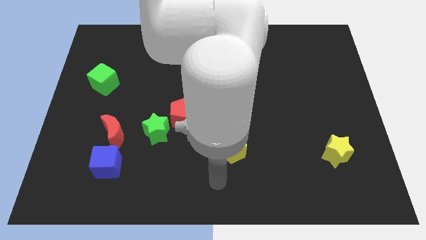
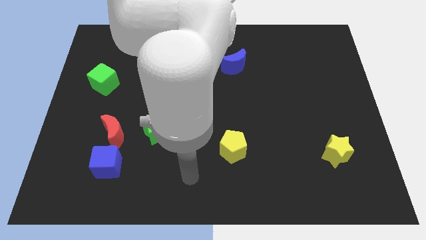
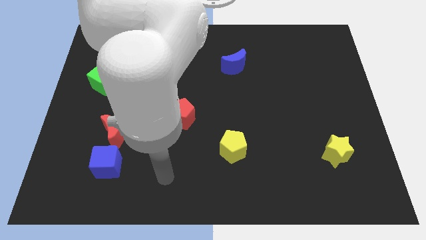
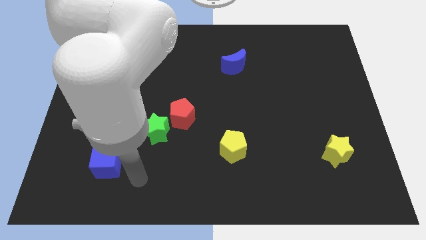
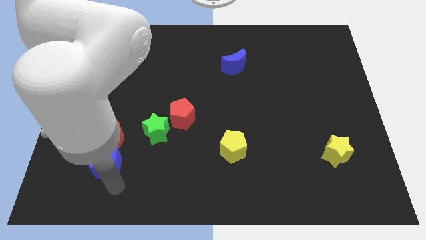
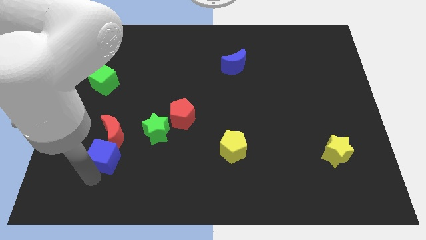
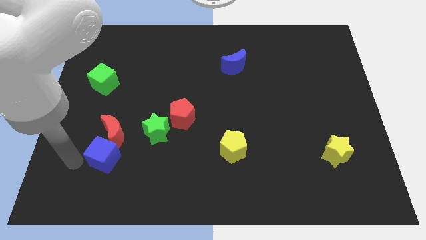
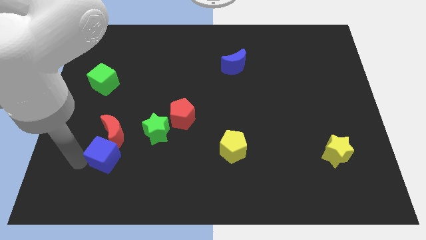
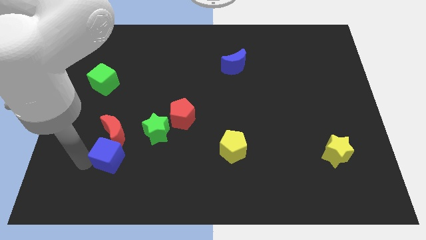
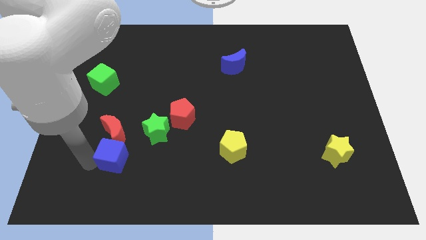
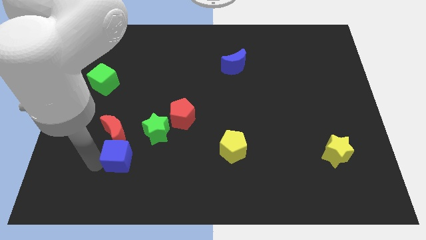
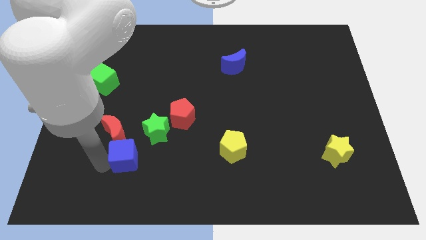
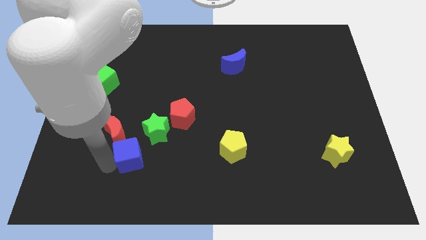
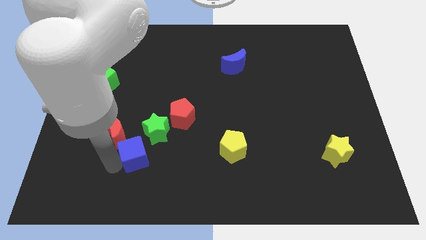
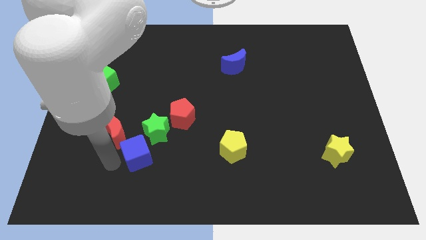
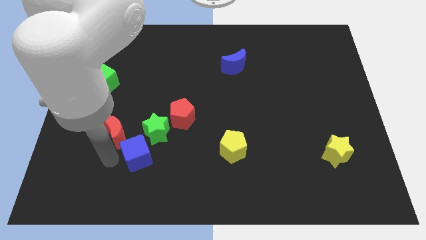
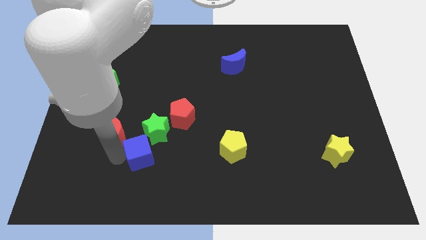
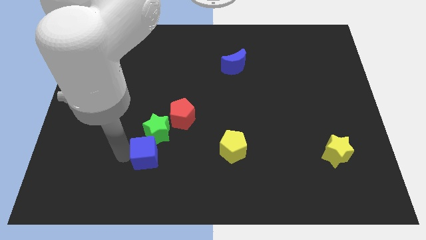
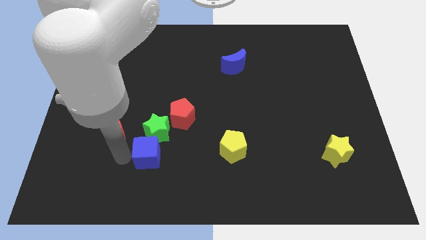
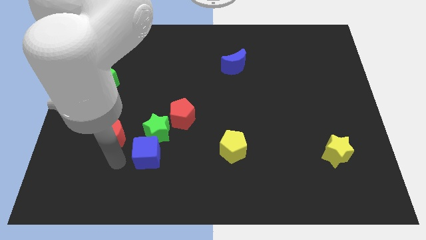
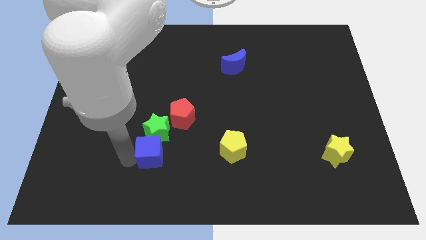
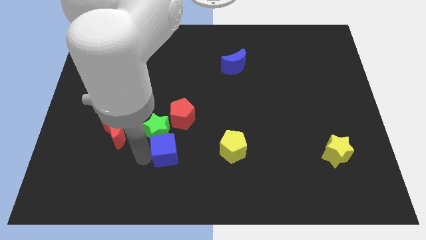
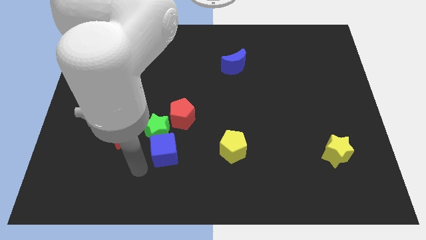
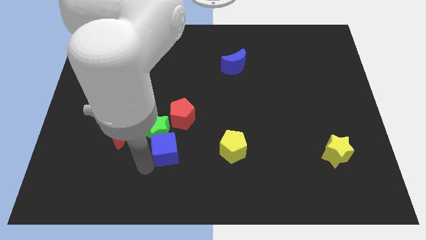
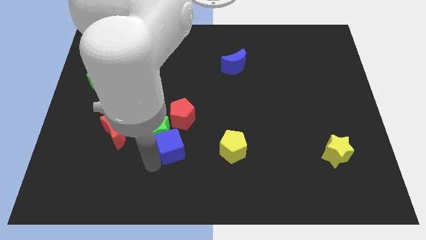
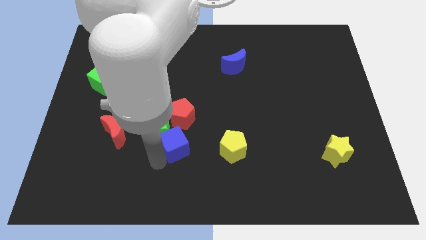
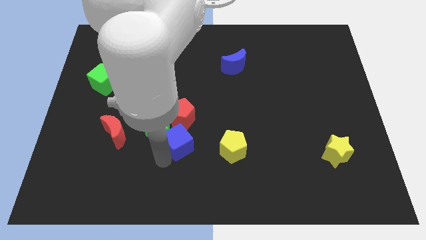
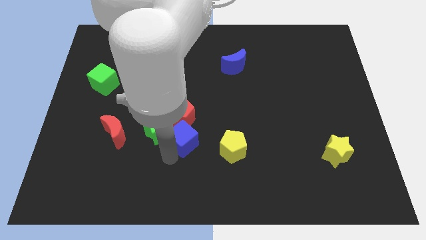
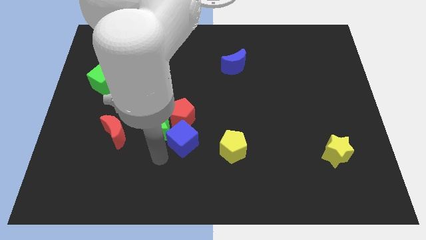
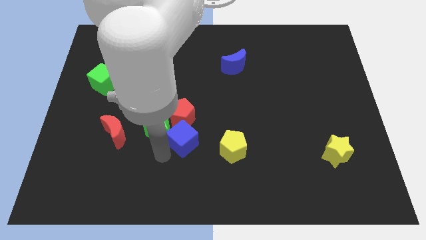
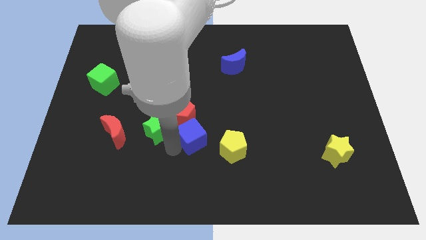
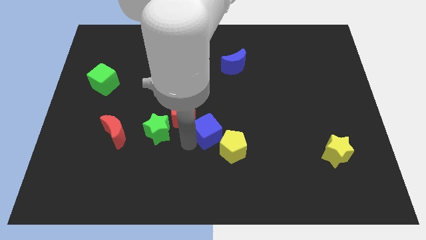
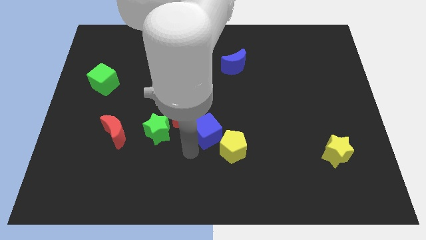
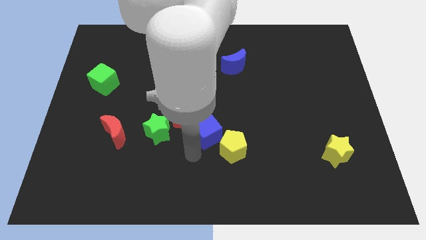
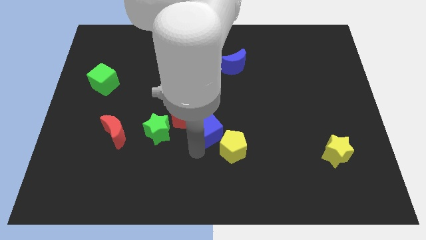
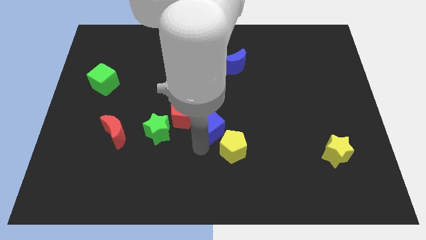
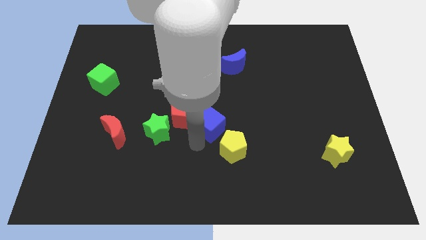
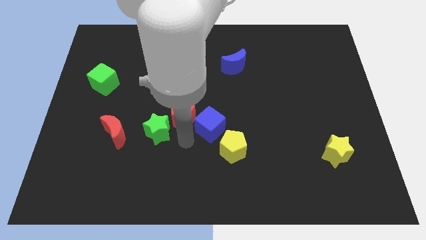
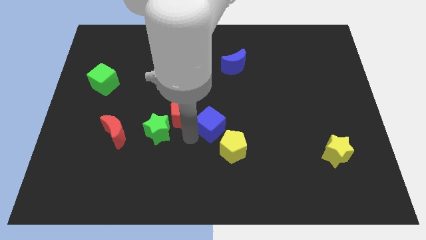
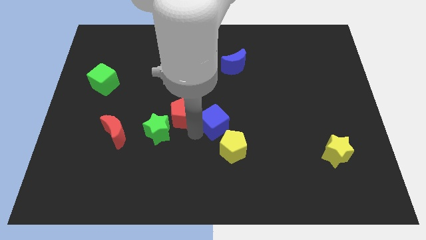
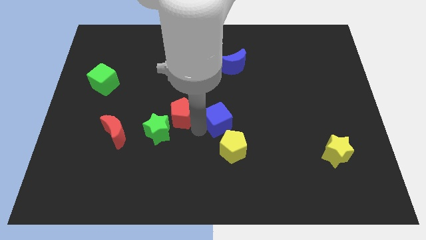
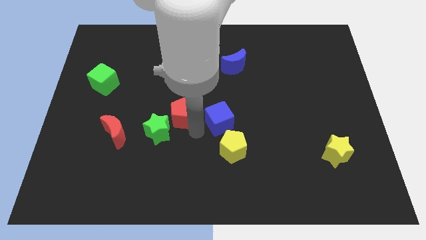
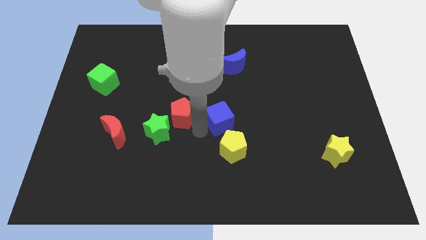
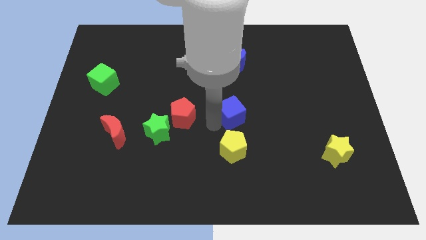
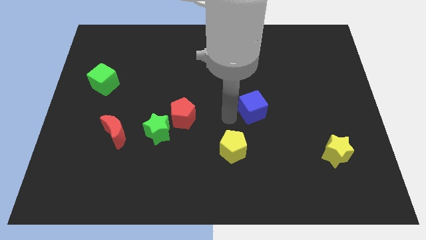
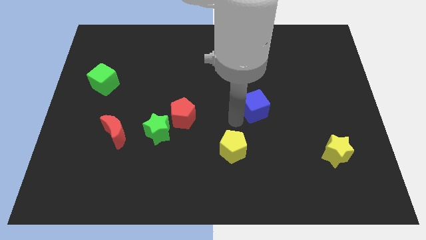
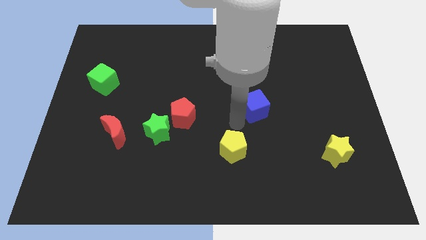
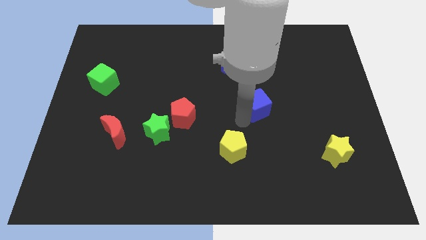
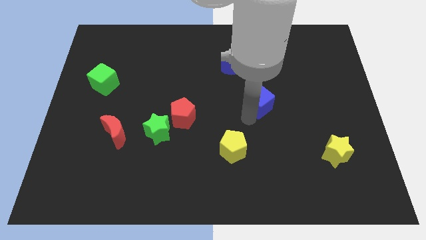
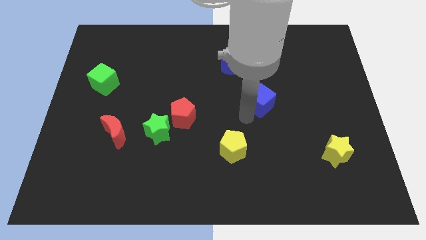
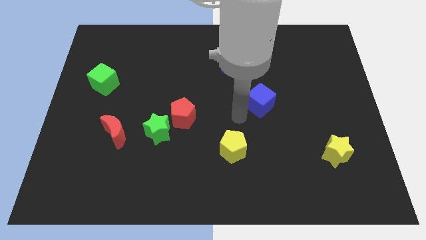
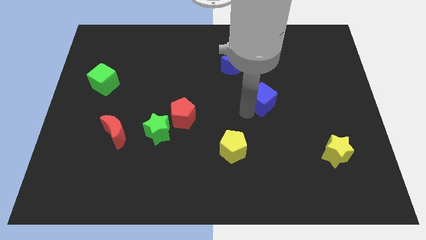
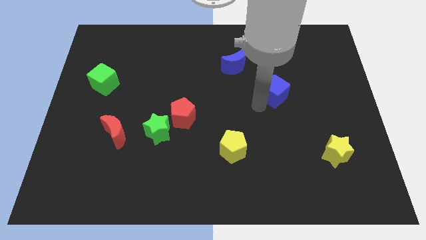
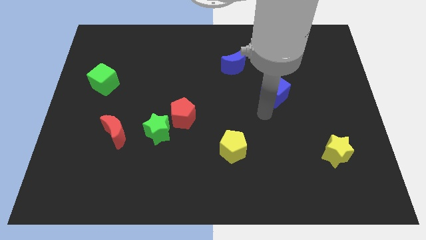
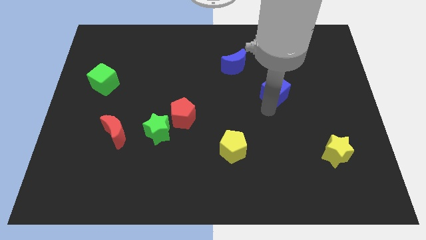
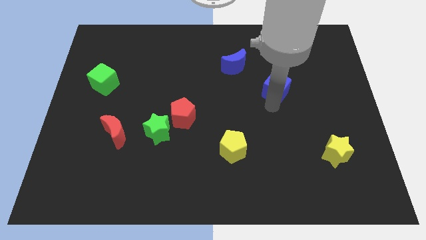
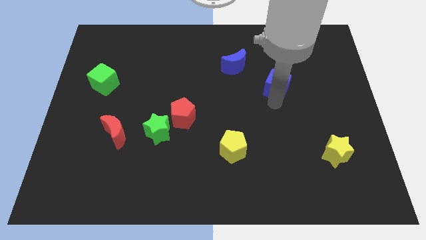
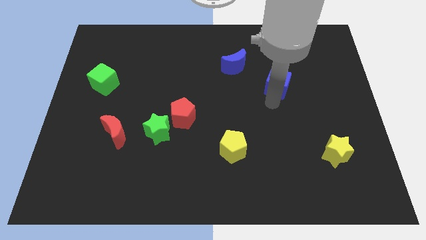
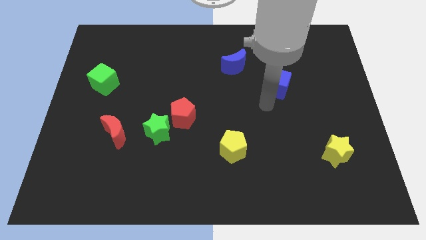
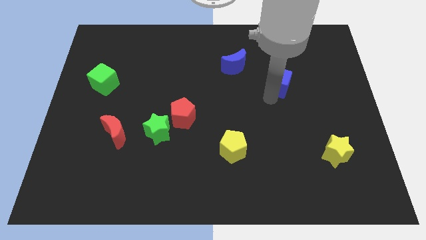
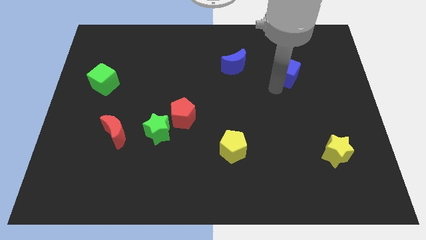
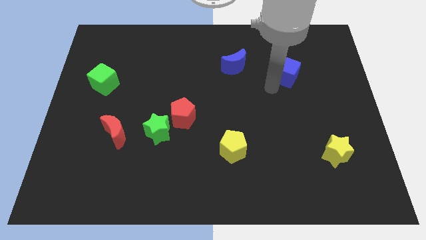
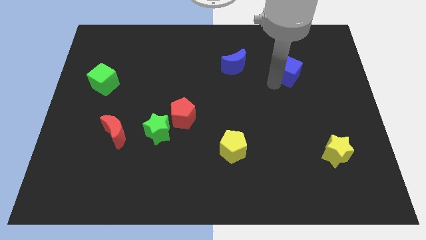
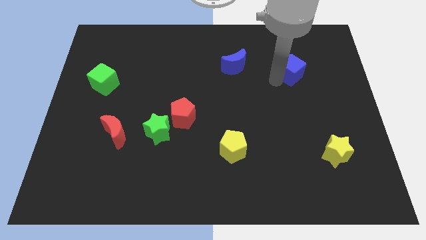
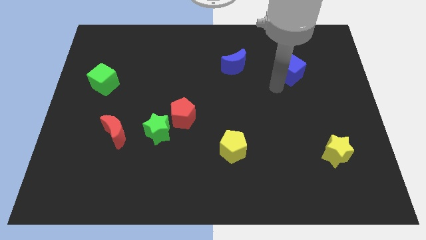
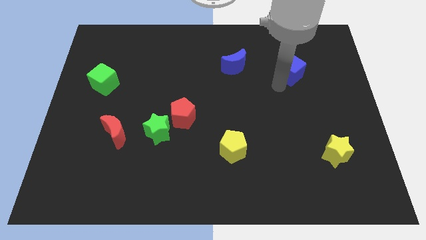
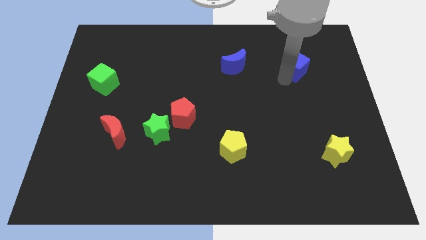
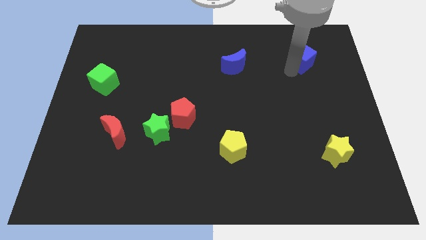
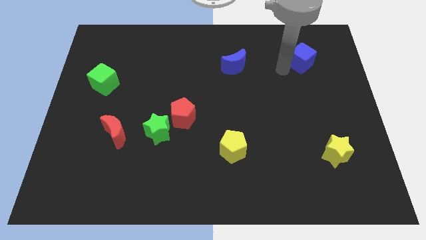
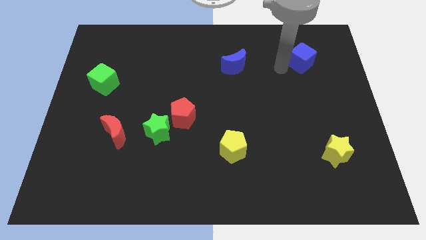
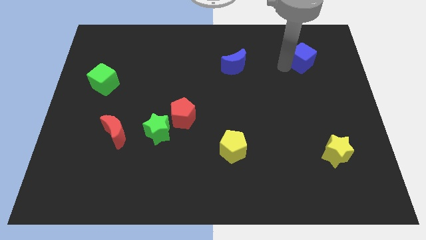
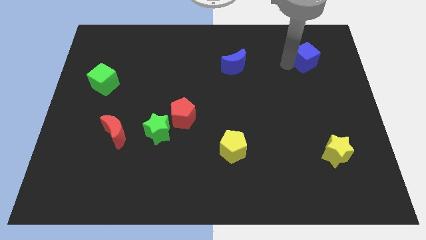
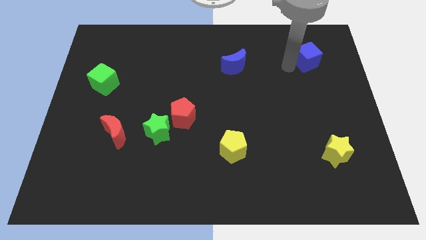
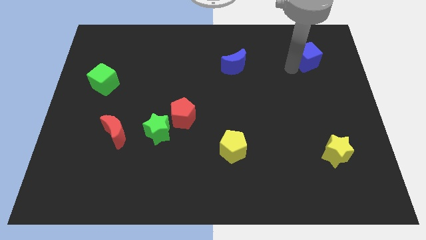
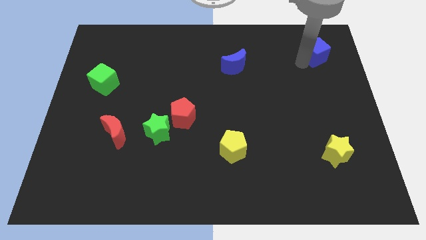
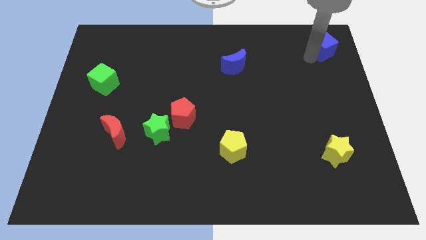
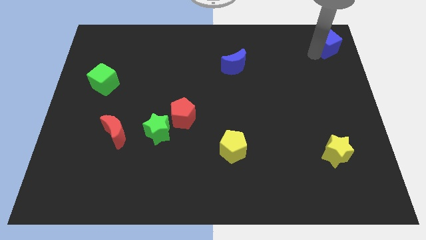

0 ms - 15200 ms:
move the blue cube to the upper right corner
